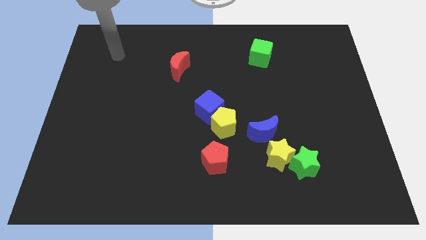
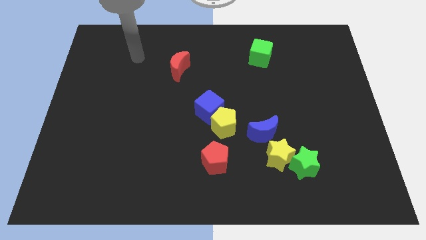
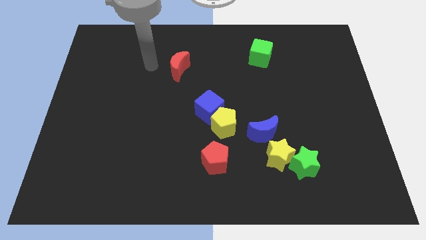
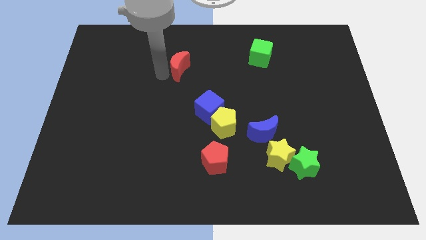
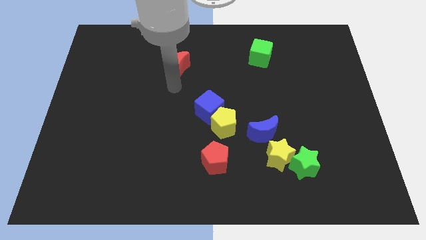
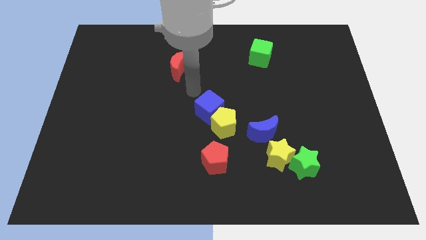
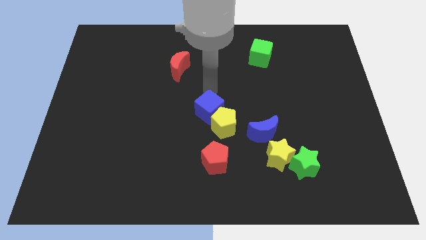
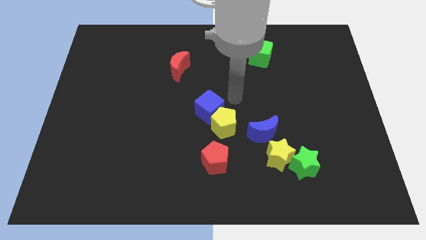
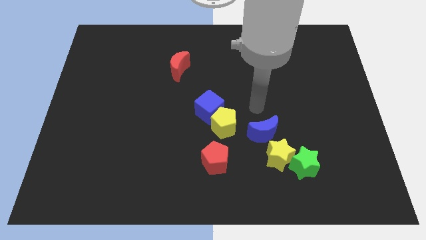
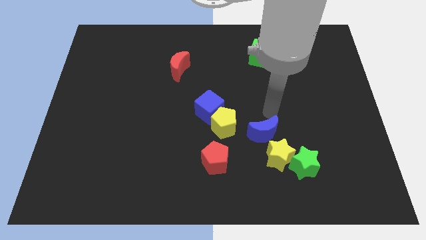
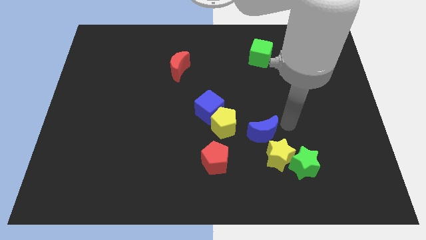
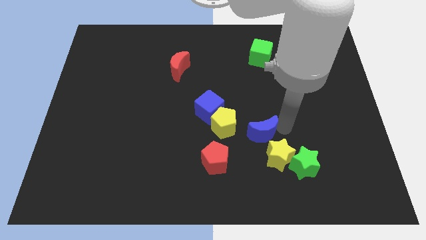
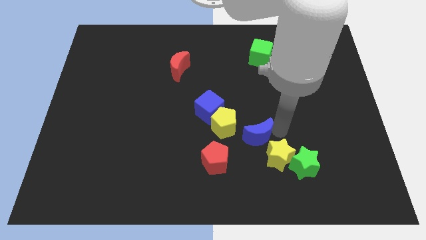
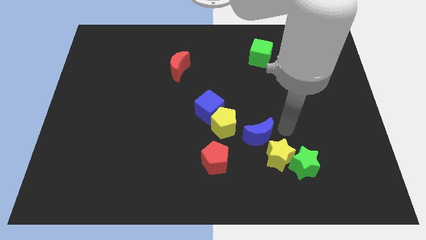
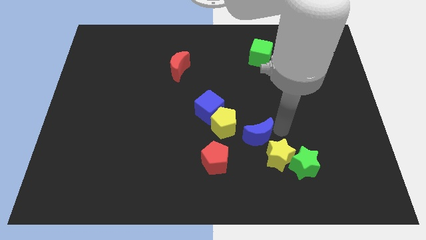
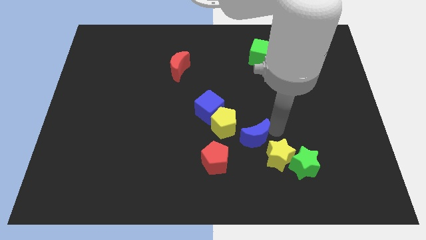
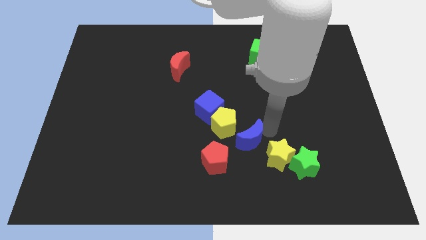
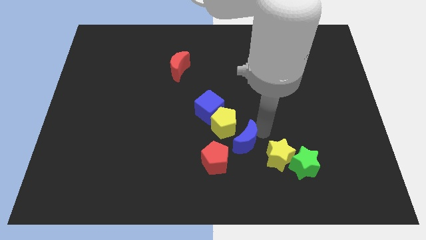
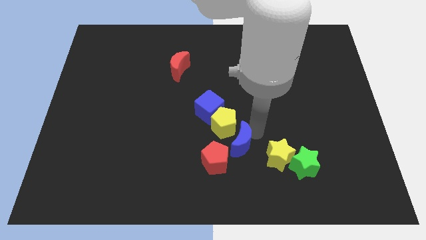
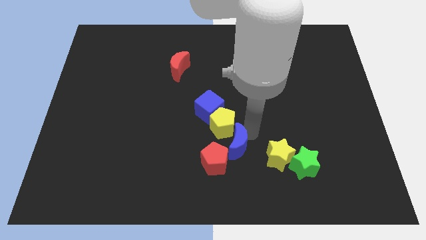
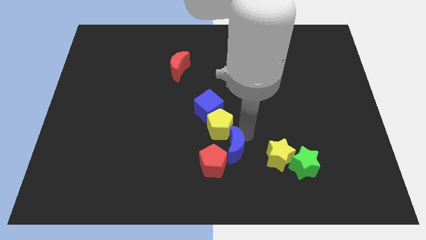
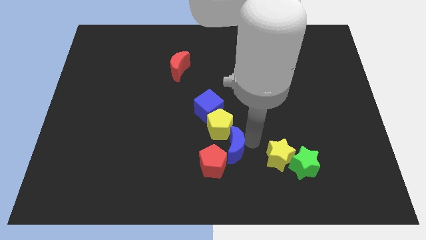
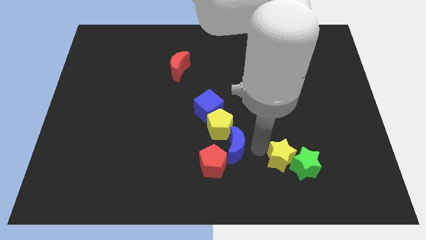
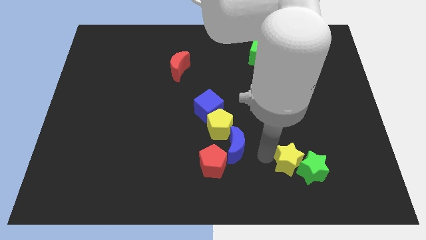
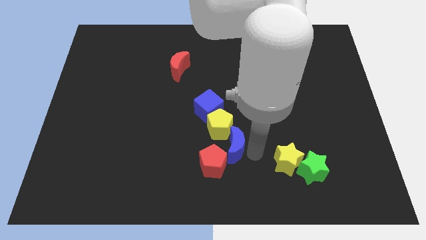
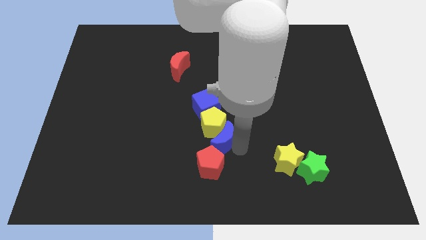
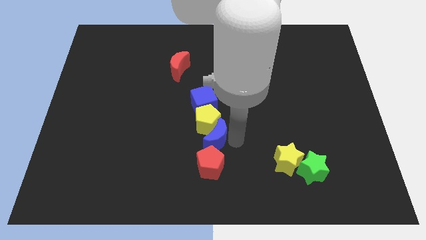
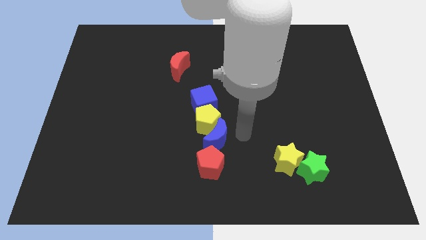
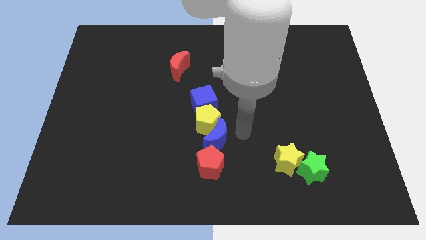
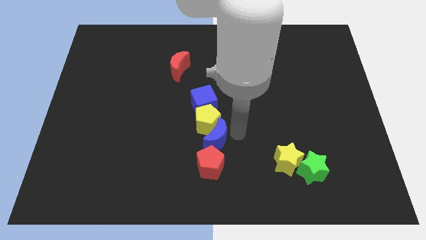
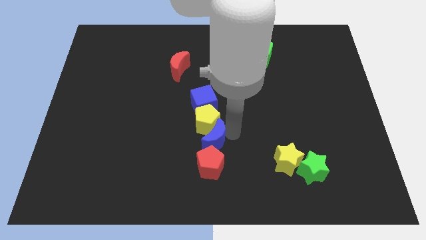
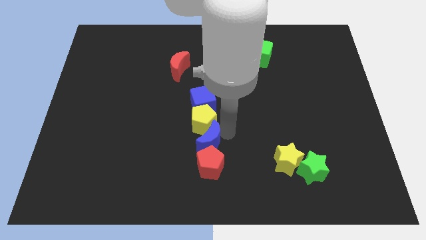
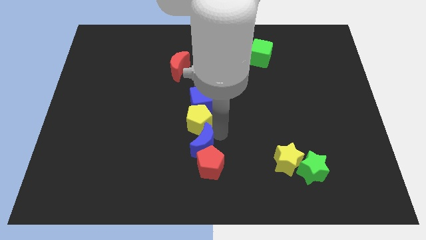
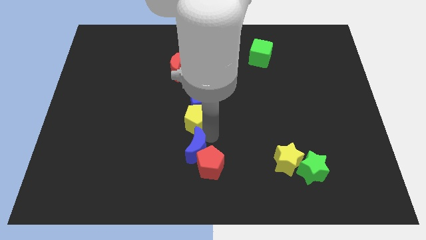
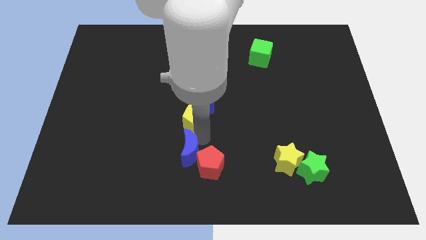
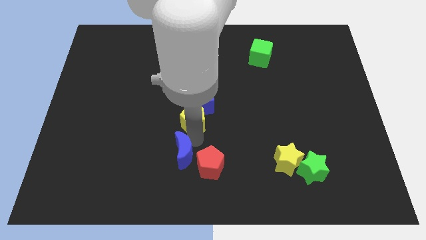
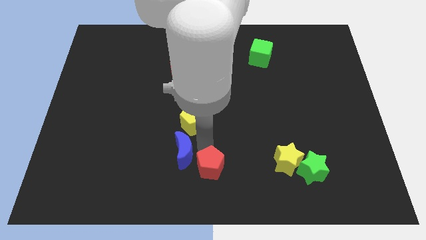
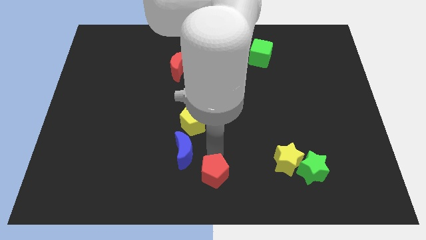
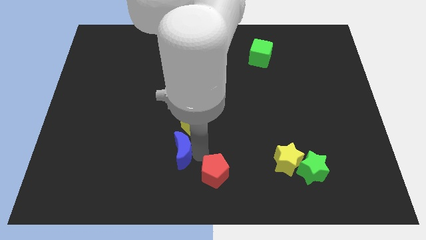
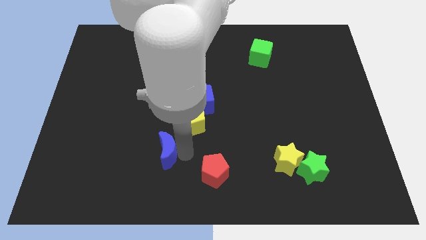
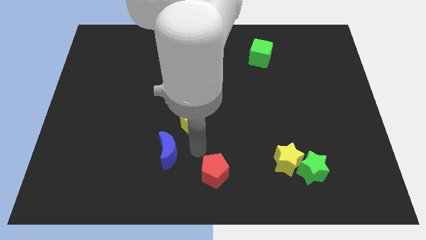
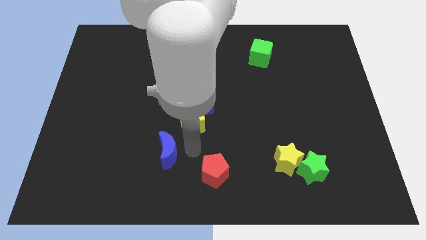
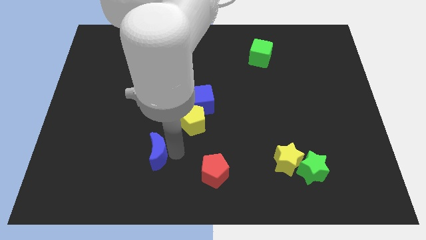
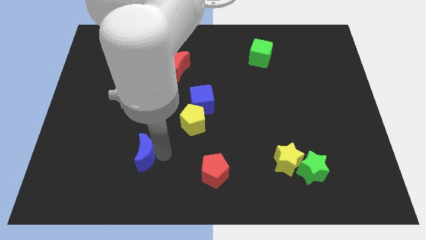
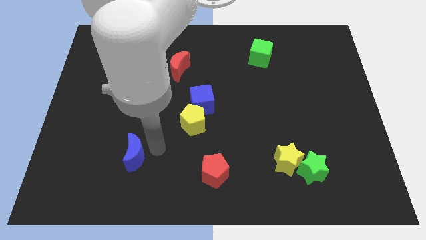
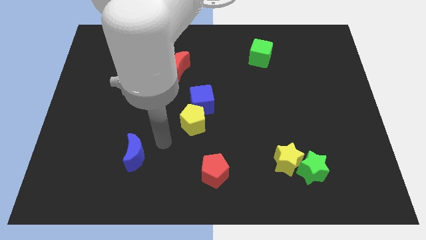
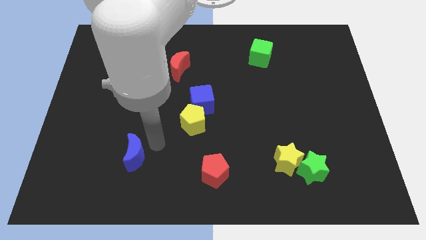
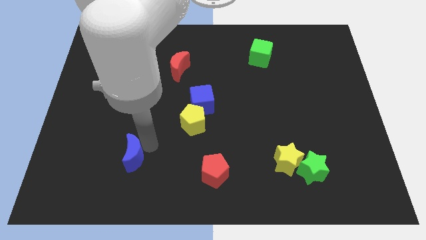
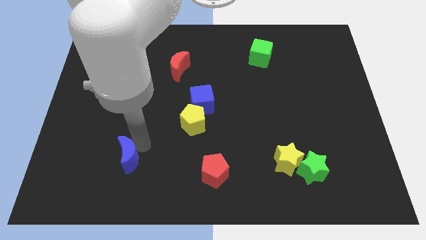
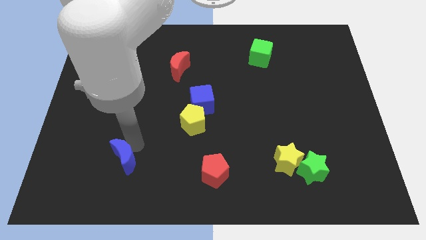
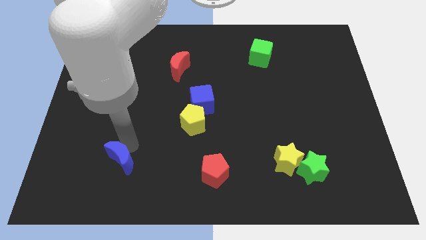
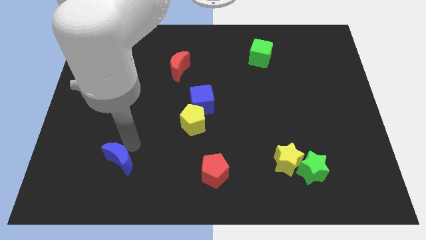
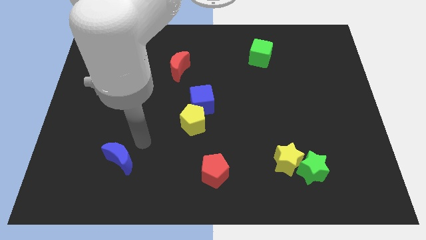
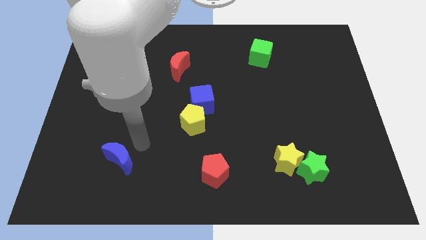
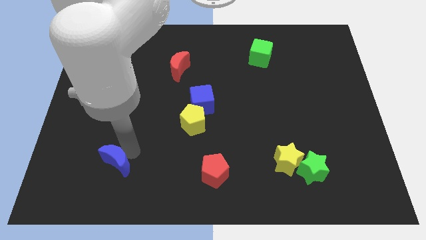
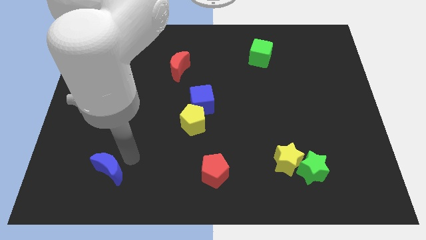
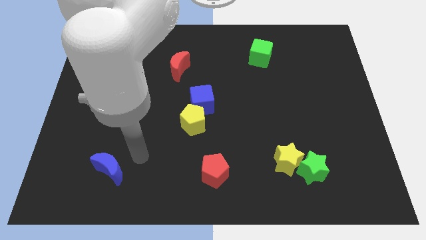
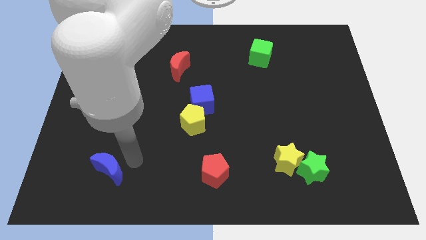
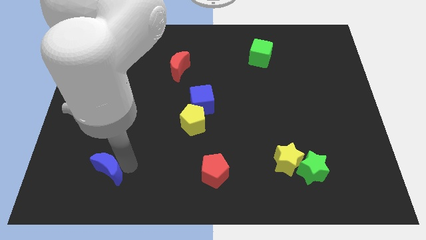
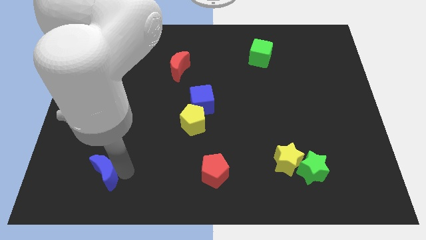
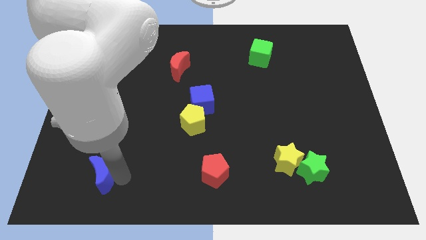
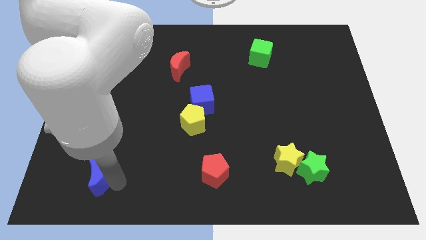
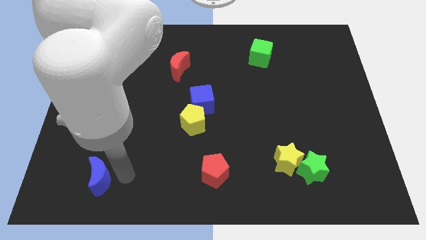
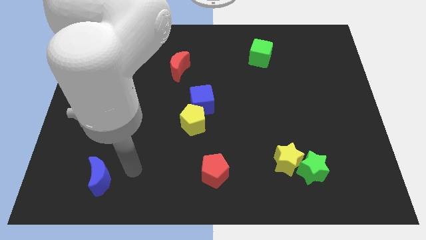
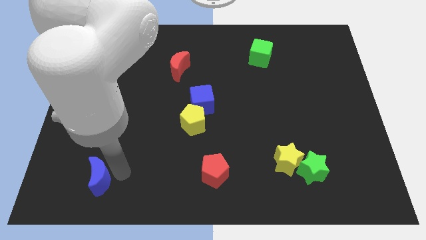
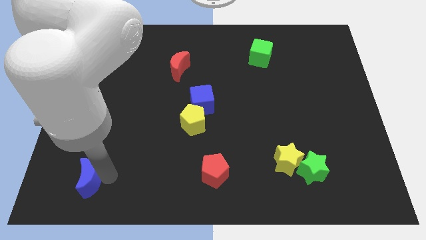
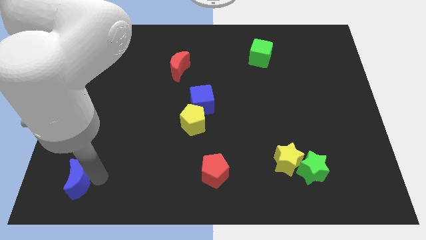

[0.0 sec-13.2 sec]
push the blue moon to the bottom left
